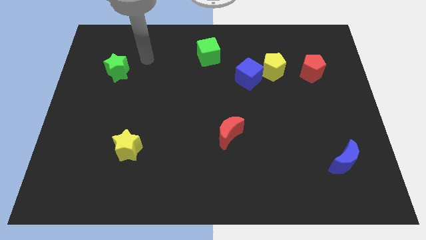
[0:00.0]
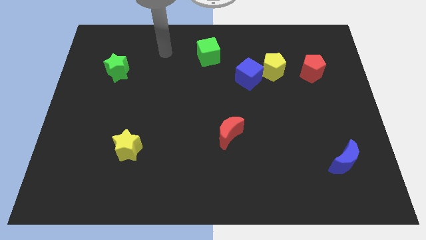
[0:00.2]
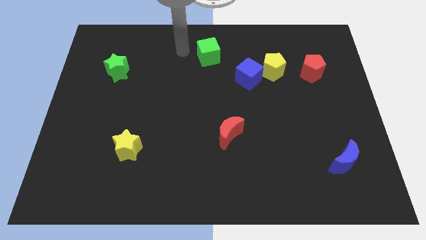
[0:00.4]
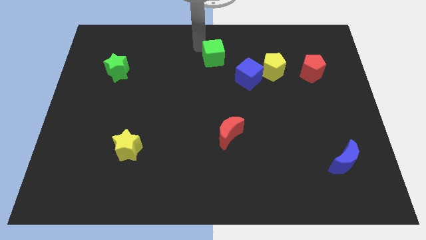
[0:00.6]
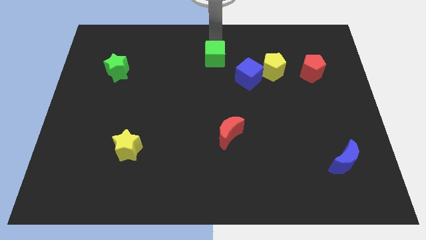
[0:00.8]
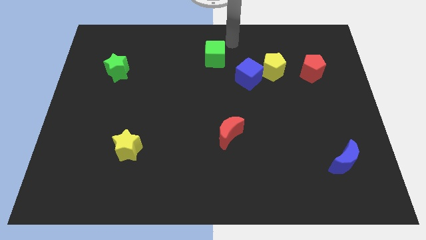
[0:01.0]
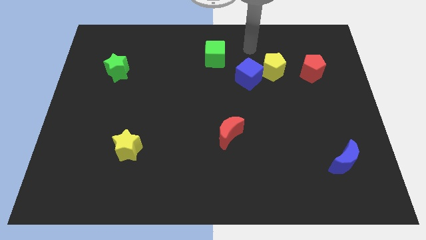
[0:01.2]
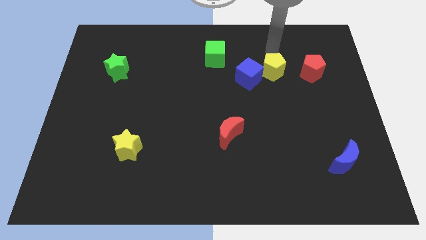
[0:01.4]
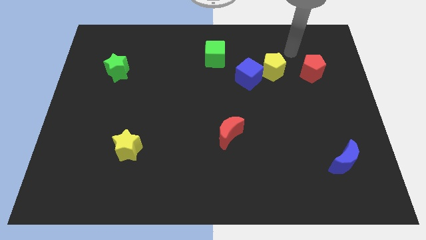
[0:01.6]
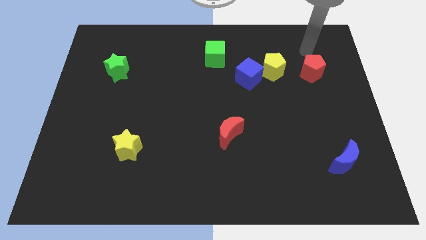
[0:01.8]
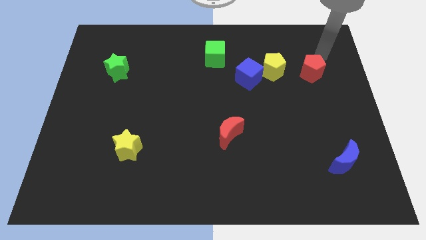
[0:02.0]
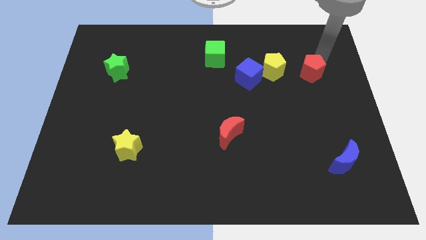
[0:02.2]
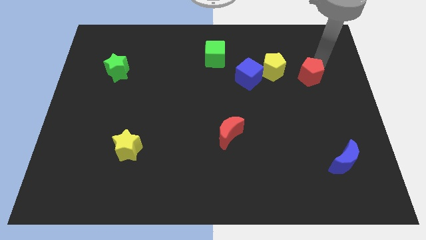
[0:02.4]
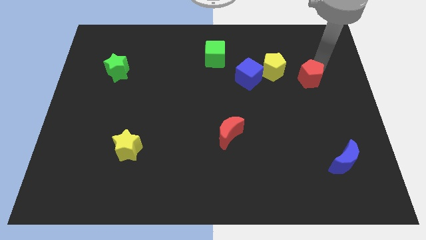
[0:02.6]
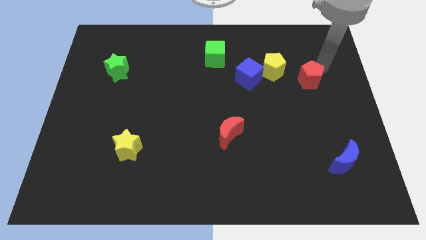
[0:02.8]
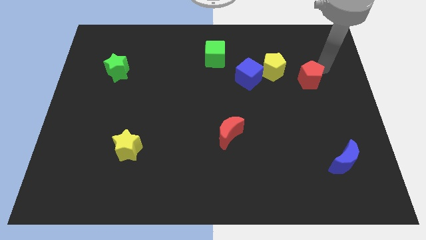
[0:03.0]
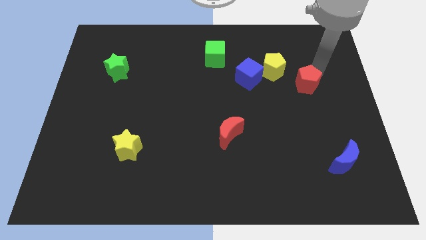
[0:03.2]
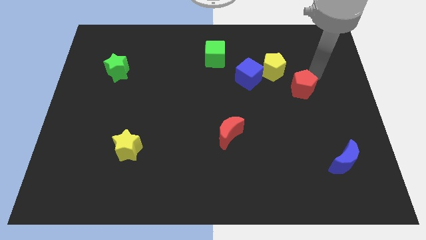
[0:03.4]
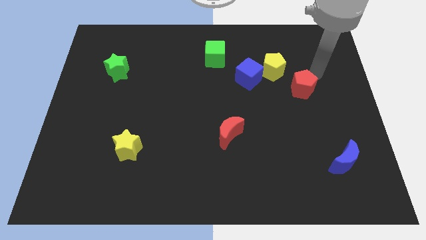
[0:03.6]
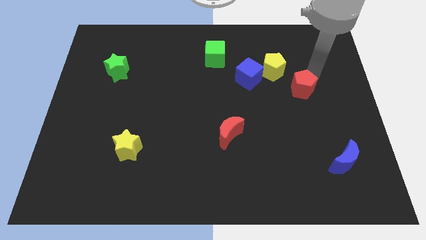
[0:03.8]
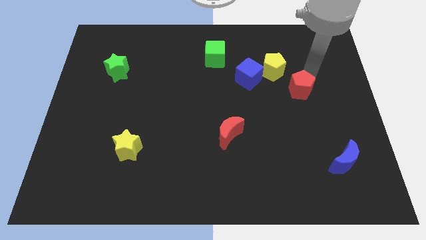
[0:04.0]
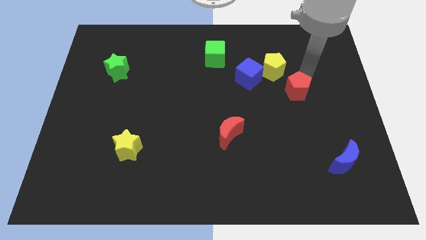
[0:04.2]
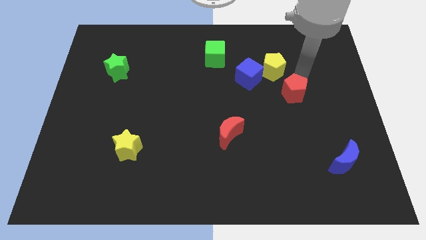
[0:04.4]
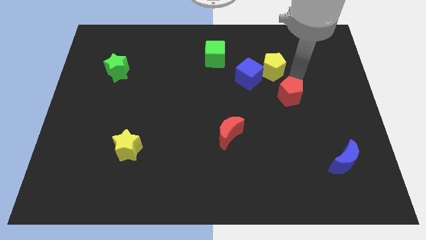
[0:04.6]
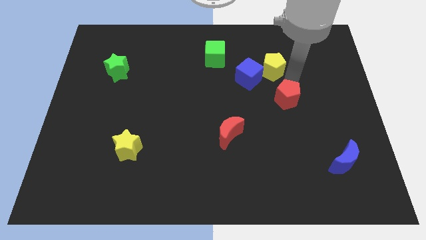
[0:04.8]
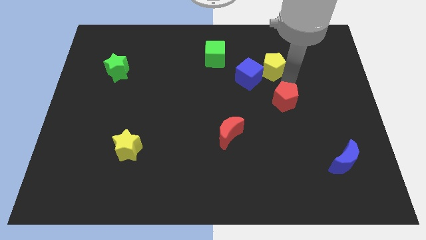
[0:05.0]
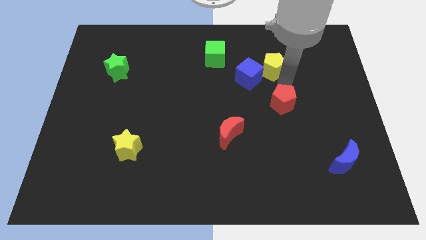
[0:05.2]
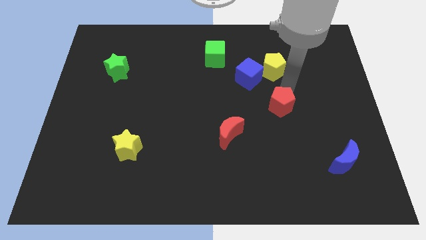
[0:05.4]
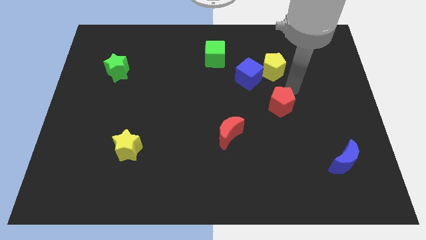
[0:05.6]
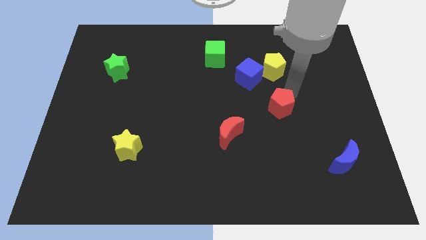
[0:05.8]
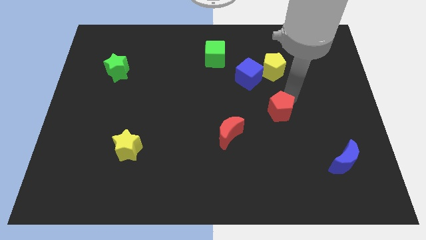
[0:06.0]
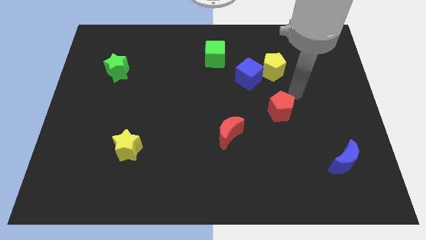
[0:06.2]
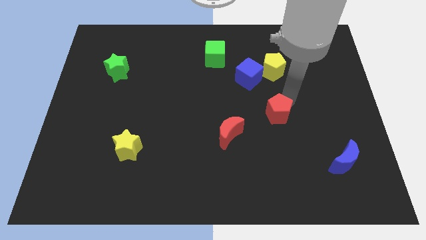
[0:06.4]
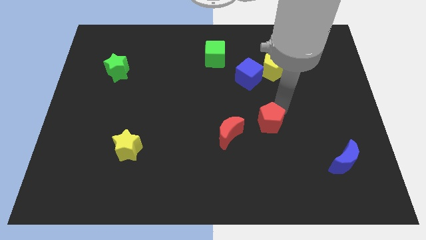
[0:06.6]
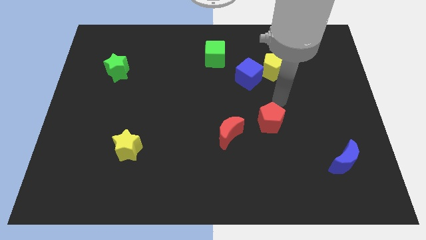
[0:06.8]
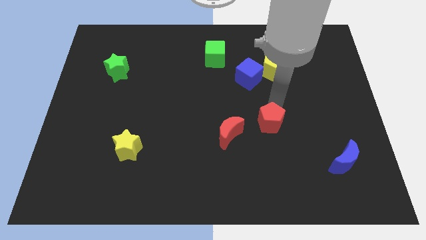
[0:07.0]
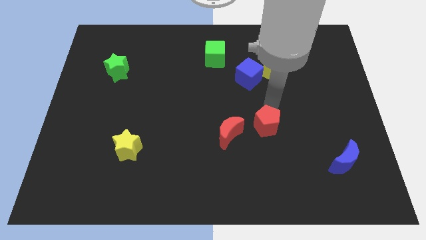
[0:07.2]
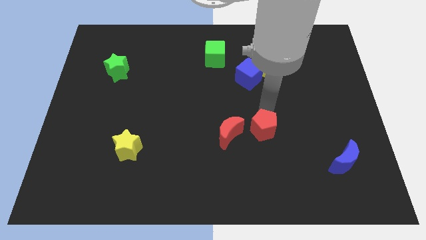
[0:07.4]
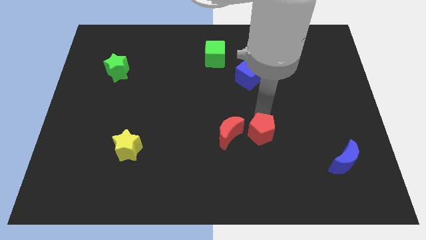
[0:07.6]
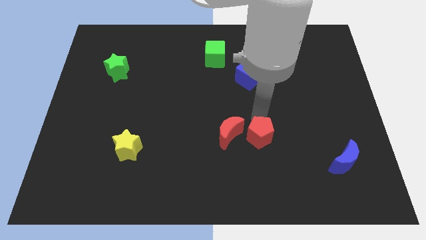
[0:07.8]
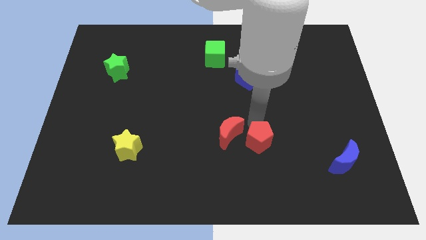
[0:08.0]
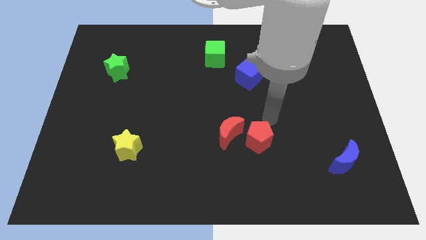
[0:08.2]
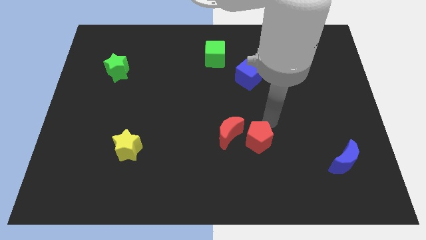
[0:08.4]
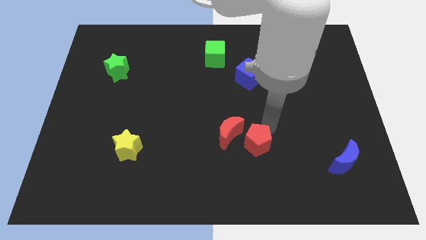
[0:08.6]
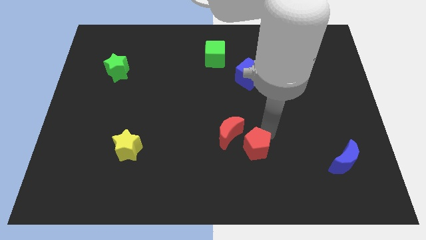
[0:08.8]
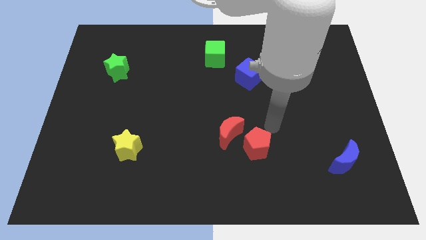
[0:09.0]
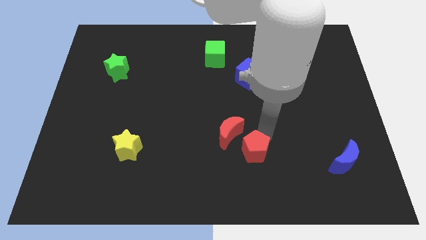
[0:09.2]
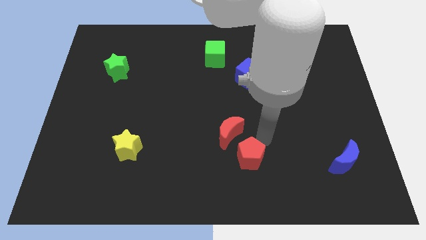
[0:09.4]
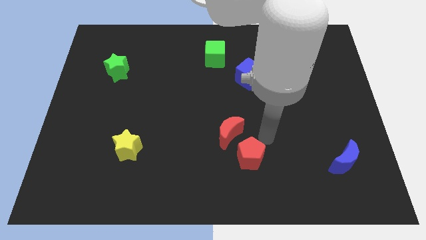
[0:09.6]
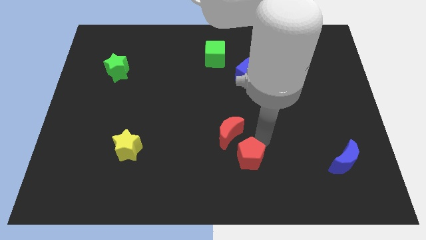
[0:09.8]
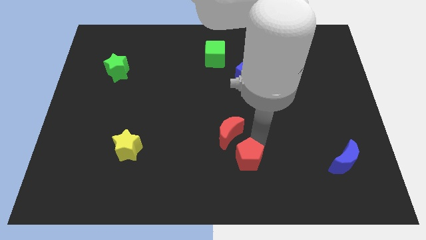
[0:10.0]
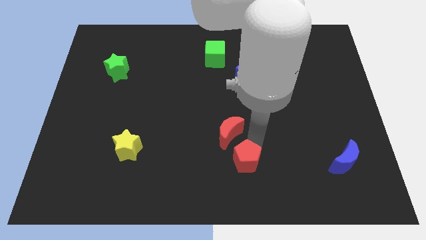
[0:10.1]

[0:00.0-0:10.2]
push the red pentagon to the bottom

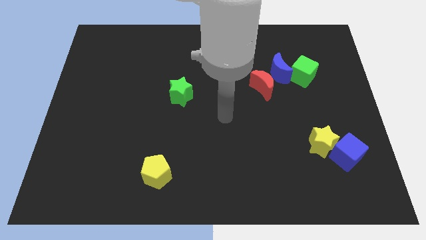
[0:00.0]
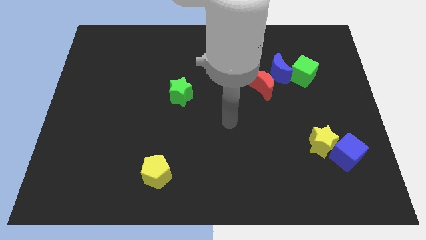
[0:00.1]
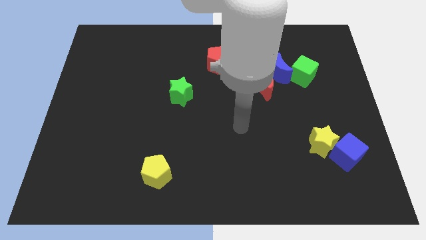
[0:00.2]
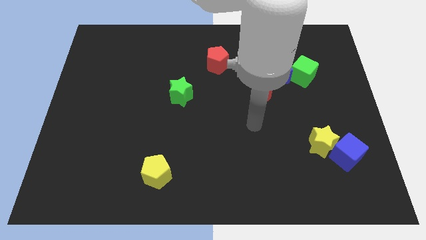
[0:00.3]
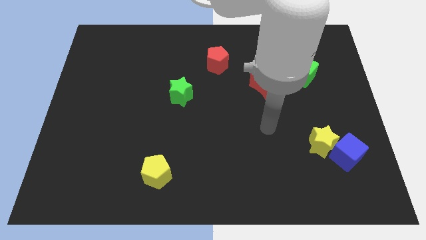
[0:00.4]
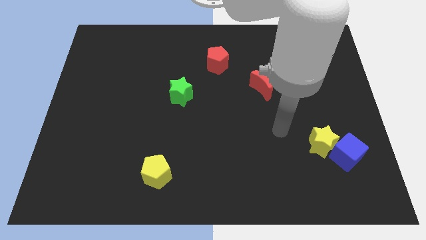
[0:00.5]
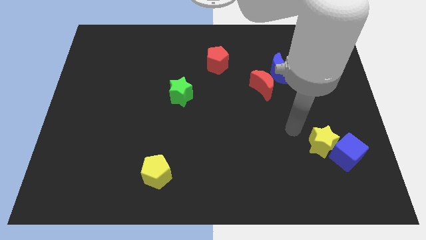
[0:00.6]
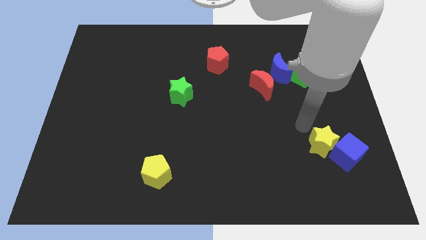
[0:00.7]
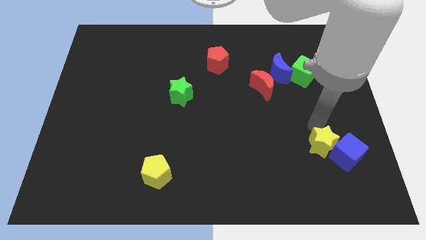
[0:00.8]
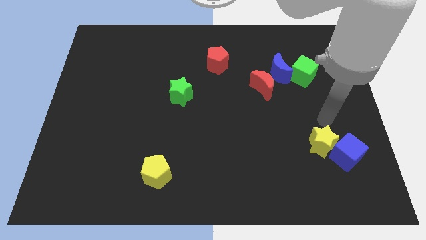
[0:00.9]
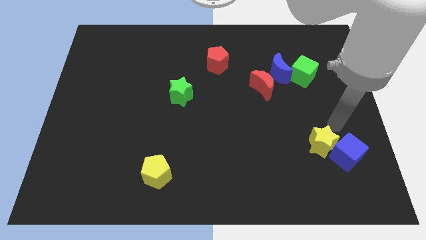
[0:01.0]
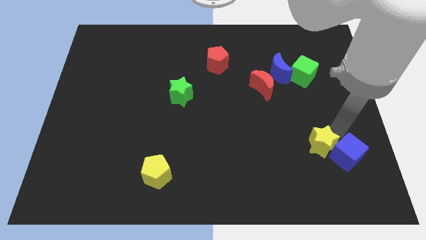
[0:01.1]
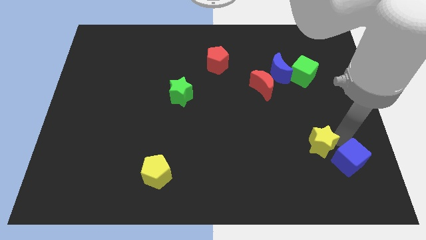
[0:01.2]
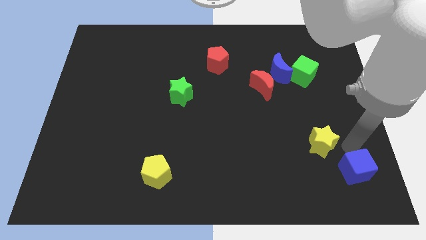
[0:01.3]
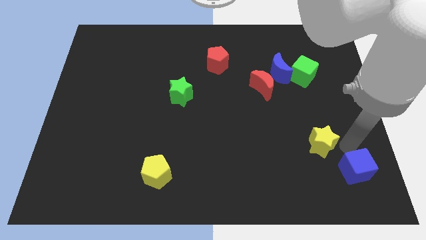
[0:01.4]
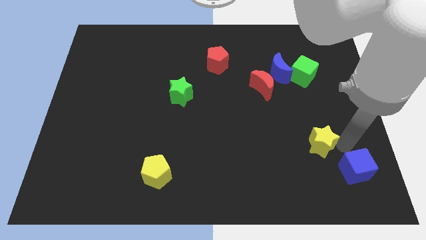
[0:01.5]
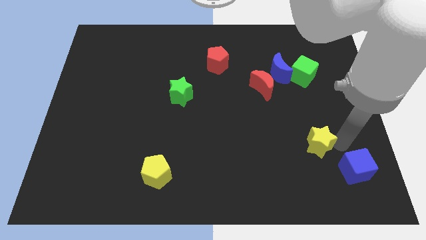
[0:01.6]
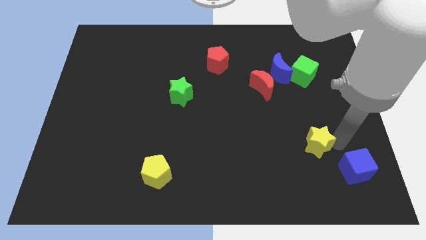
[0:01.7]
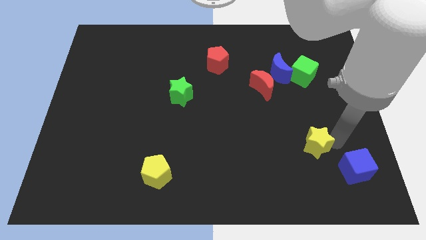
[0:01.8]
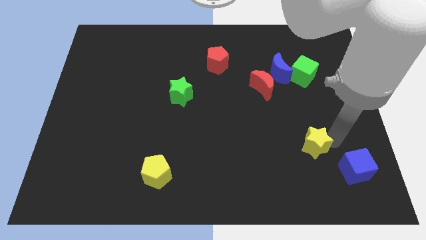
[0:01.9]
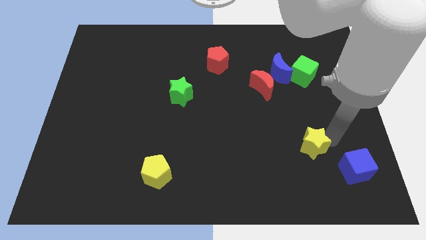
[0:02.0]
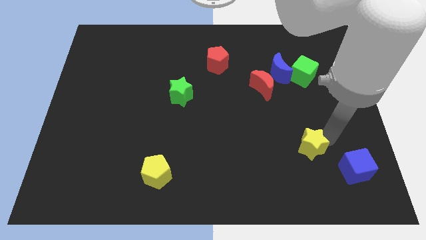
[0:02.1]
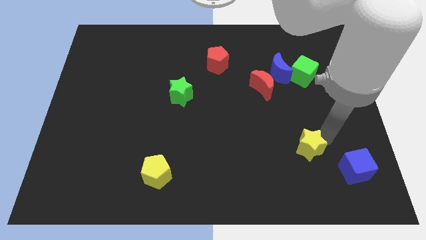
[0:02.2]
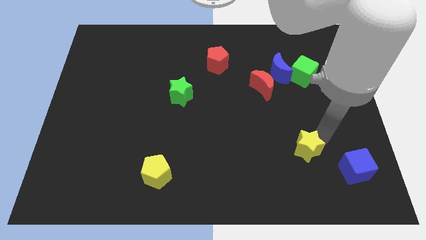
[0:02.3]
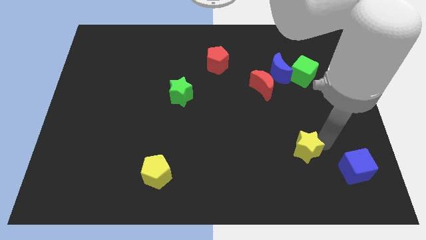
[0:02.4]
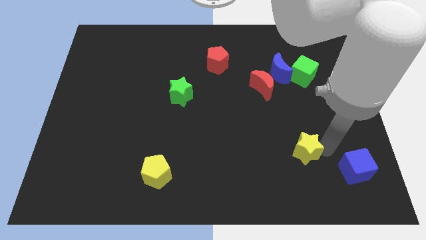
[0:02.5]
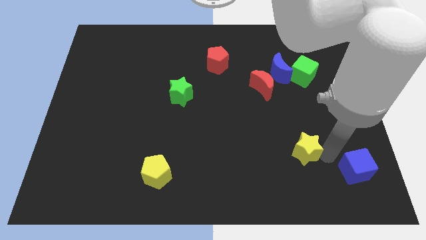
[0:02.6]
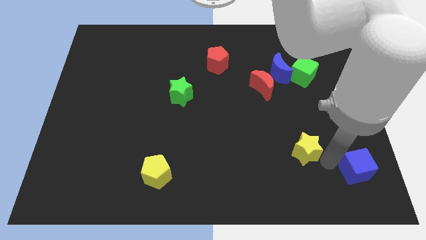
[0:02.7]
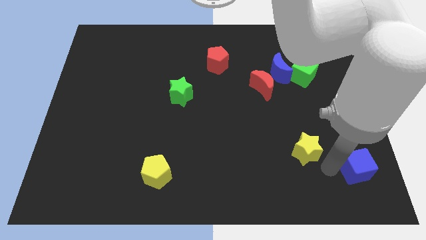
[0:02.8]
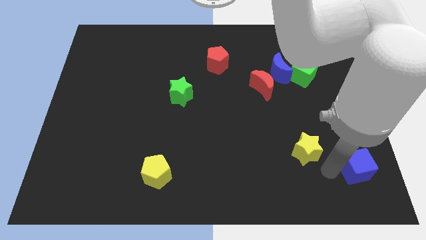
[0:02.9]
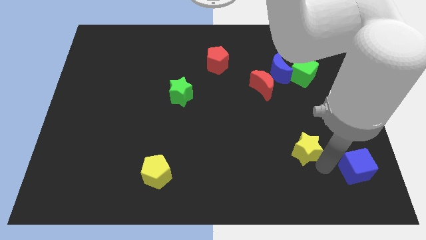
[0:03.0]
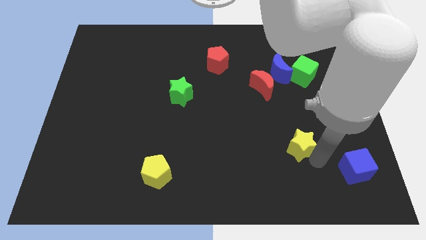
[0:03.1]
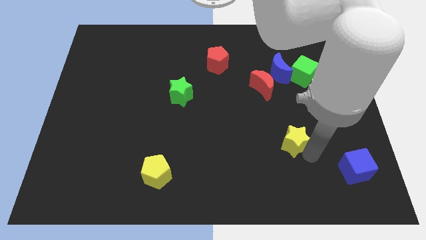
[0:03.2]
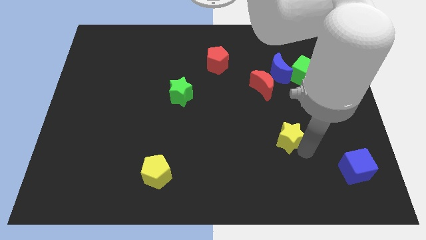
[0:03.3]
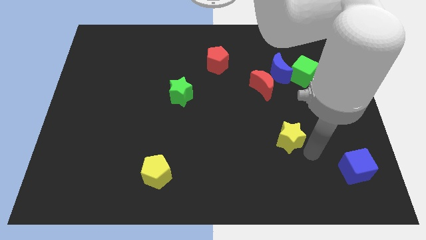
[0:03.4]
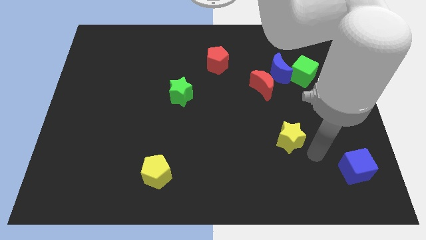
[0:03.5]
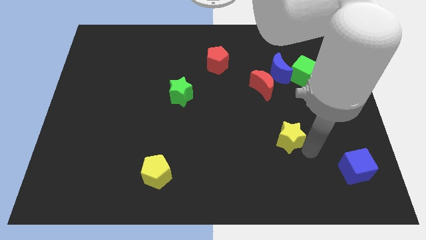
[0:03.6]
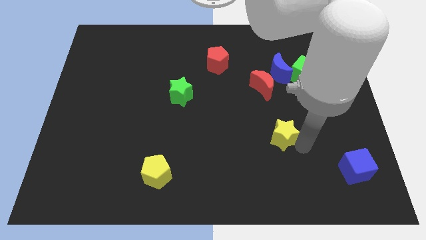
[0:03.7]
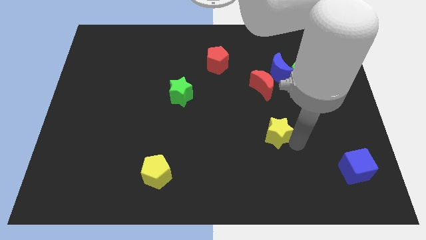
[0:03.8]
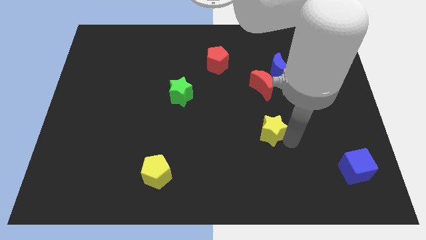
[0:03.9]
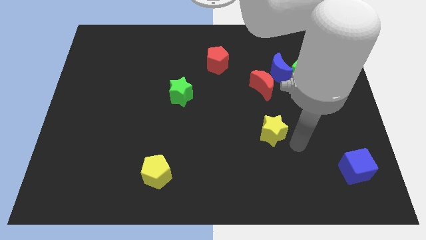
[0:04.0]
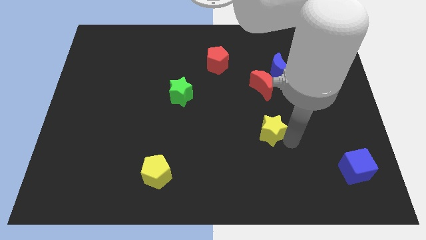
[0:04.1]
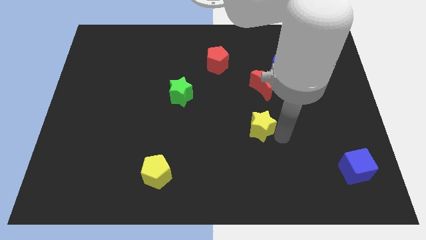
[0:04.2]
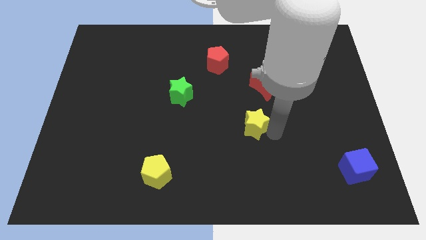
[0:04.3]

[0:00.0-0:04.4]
move the yellow star to the center of the board
